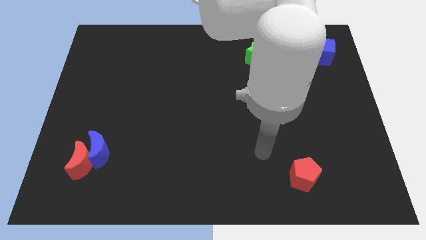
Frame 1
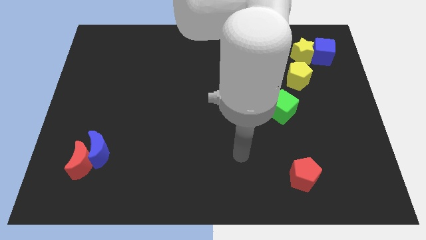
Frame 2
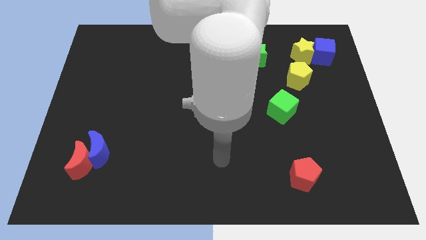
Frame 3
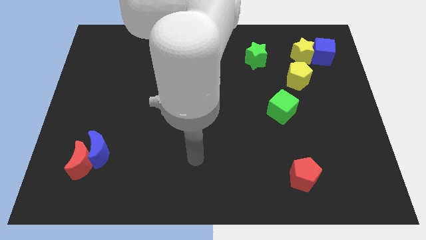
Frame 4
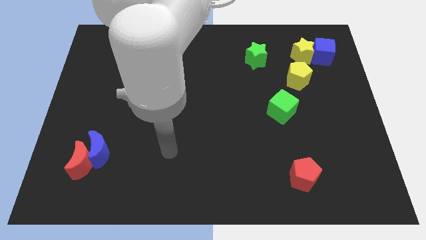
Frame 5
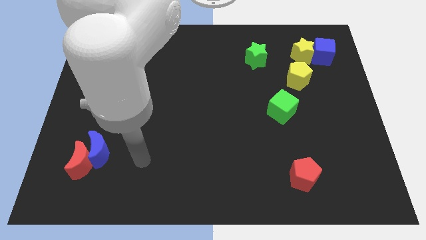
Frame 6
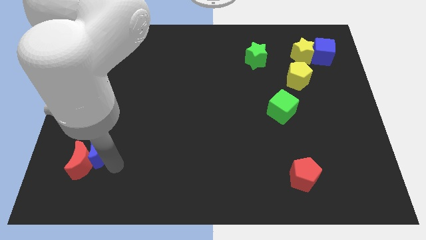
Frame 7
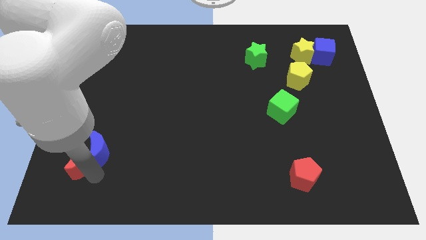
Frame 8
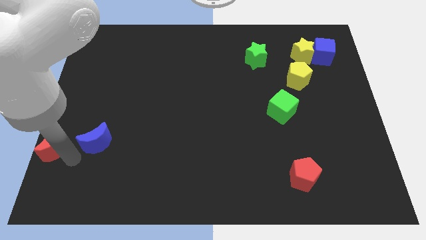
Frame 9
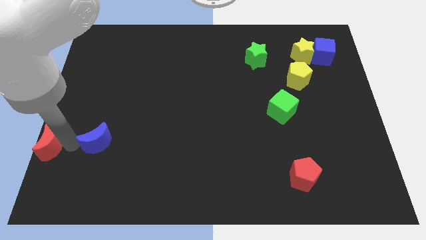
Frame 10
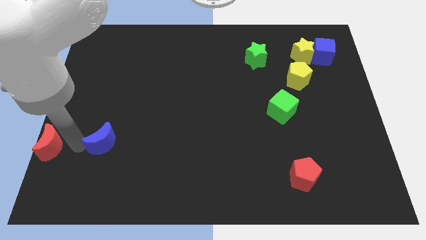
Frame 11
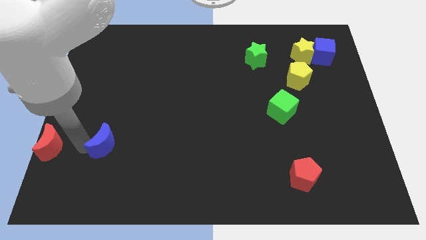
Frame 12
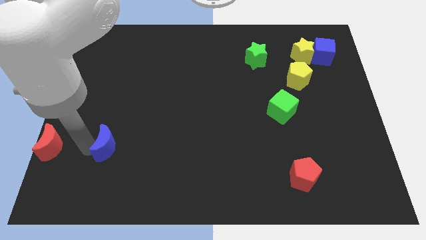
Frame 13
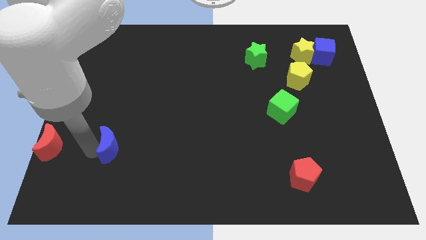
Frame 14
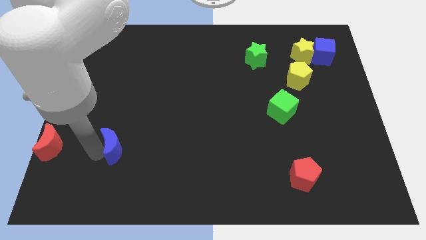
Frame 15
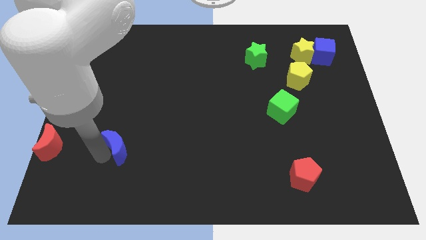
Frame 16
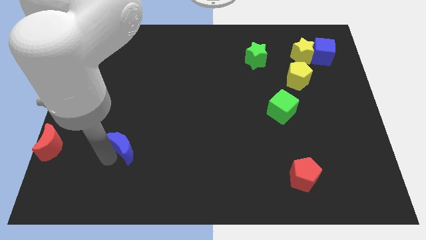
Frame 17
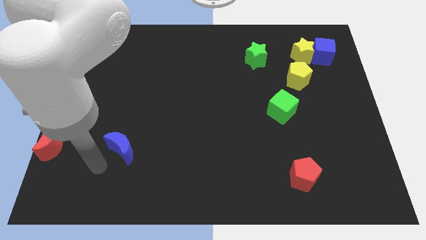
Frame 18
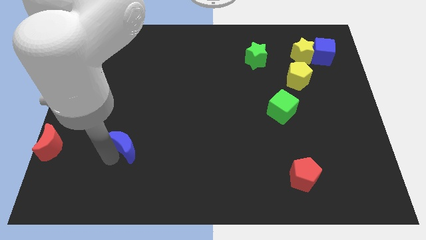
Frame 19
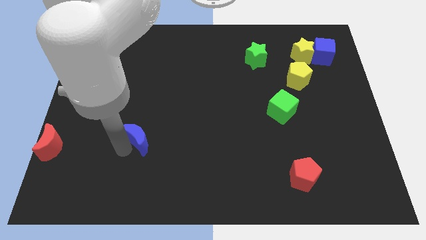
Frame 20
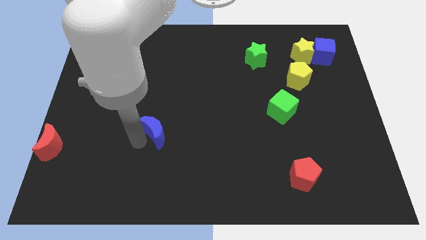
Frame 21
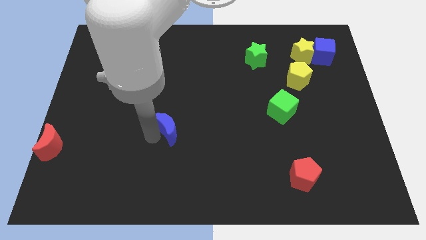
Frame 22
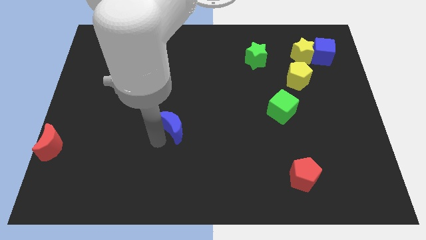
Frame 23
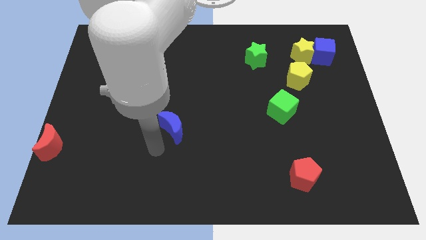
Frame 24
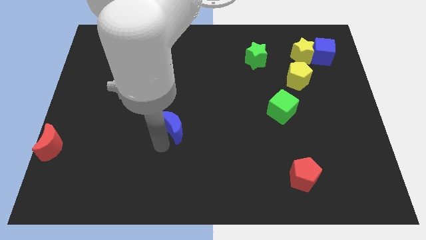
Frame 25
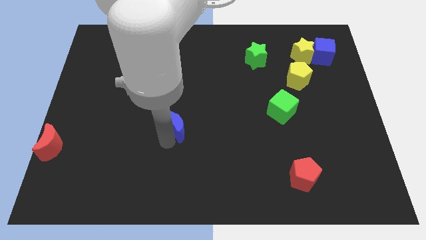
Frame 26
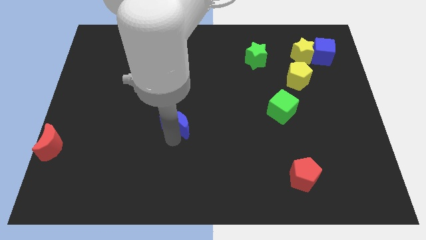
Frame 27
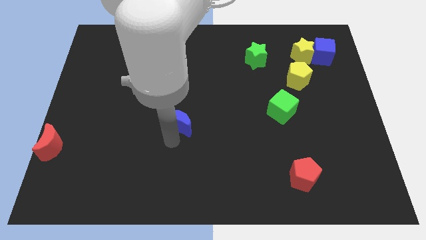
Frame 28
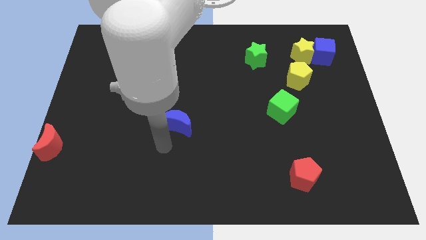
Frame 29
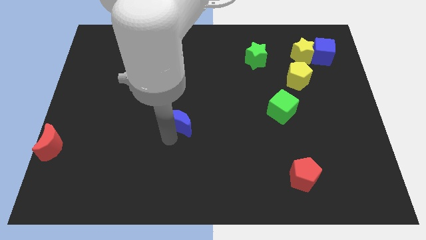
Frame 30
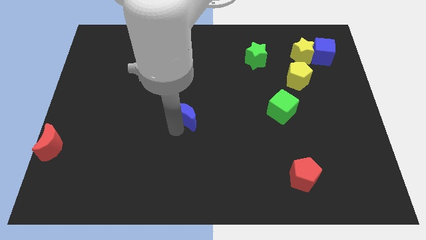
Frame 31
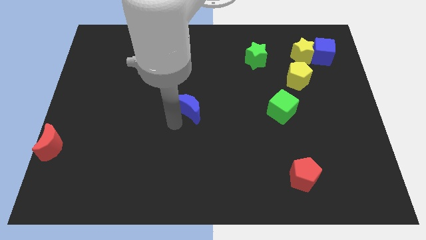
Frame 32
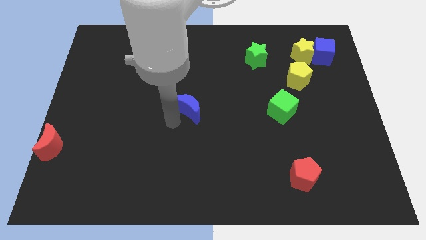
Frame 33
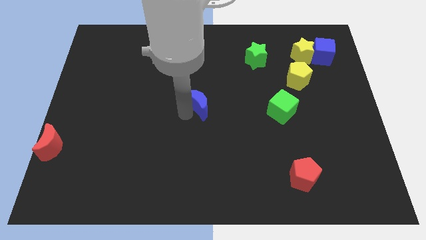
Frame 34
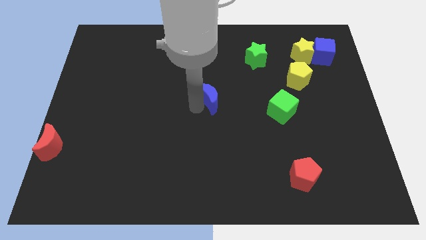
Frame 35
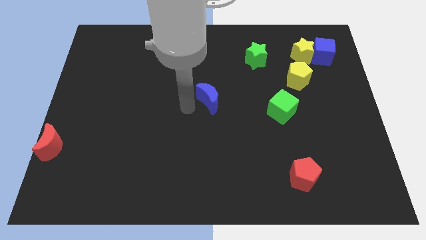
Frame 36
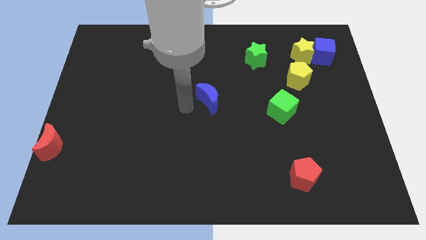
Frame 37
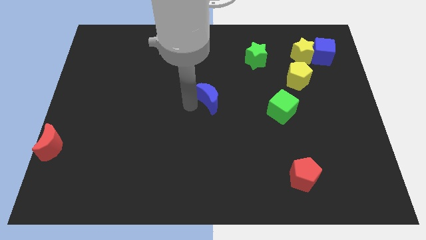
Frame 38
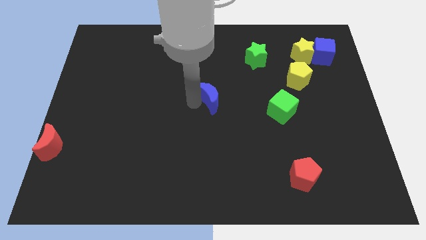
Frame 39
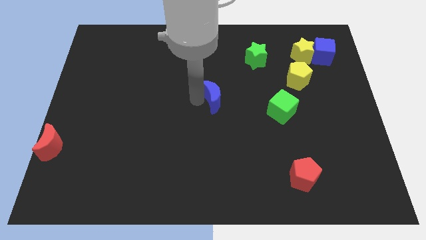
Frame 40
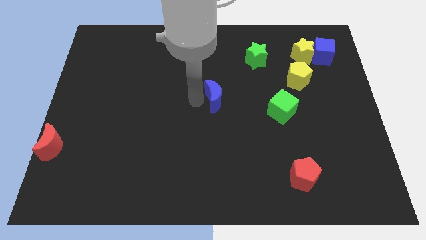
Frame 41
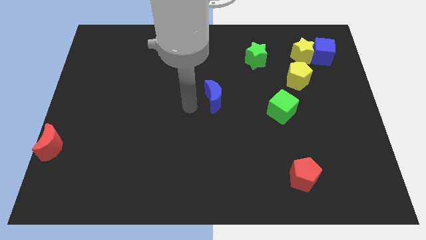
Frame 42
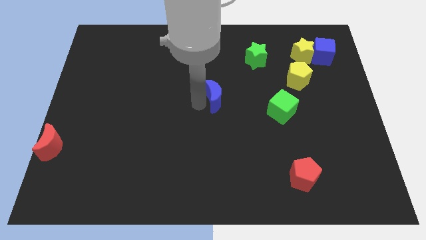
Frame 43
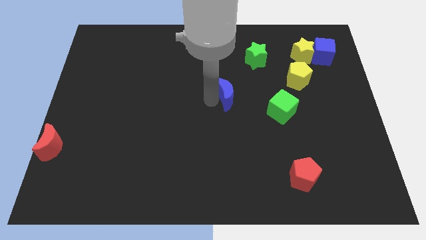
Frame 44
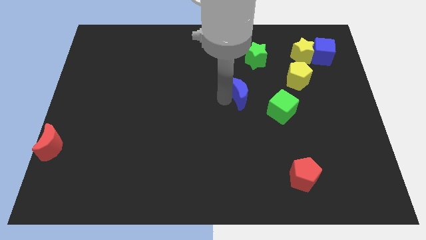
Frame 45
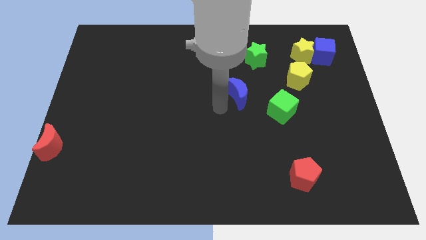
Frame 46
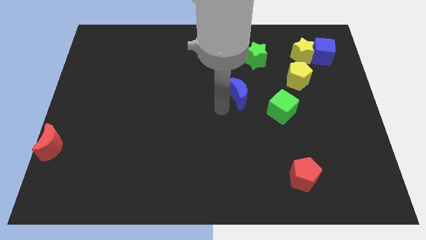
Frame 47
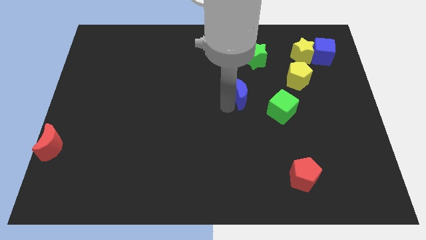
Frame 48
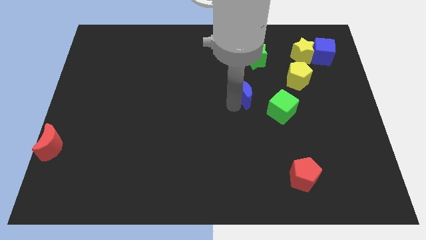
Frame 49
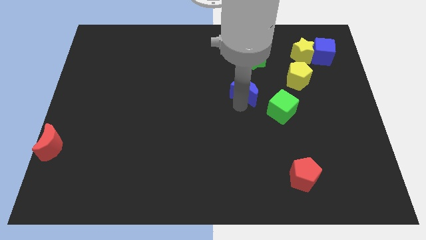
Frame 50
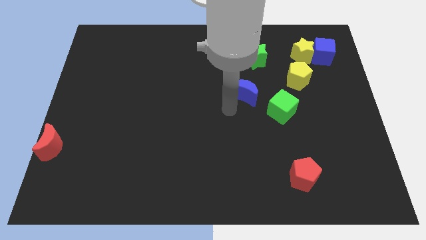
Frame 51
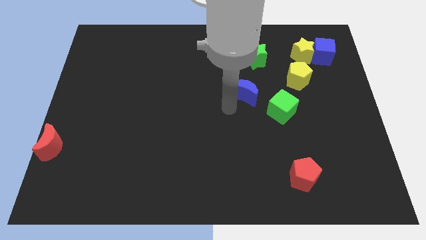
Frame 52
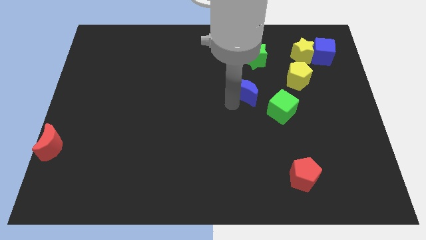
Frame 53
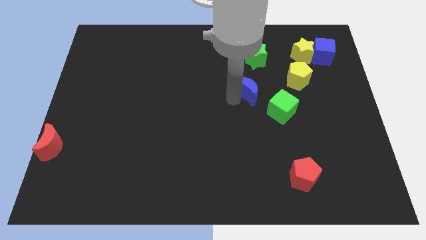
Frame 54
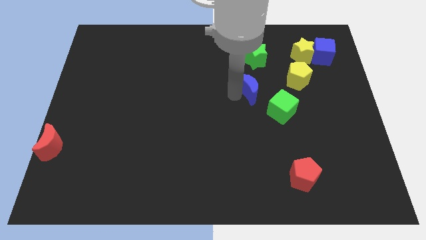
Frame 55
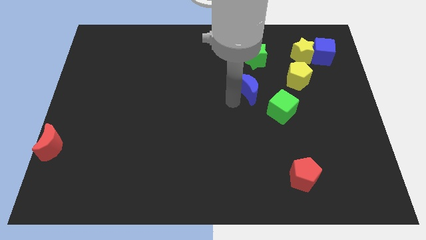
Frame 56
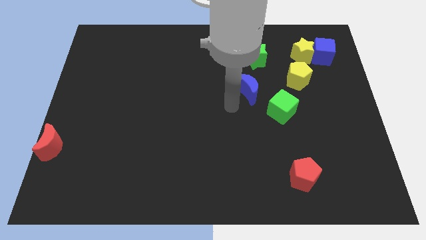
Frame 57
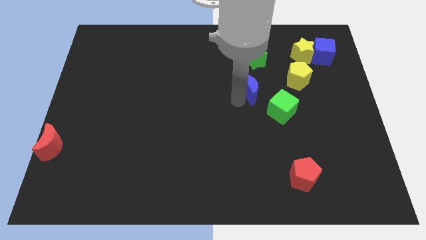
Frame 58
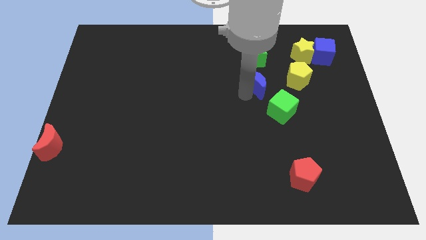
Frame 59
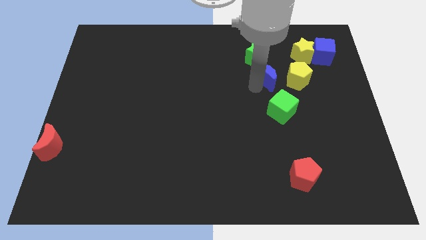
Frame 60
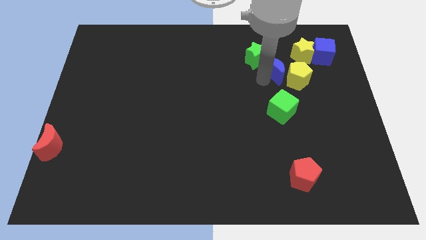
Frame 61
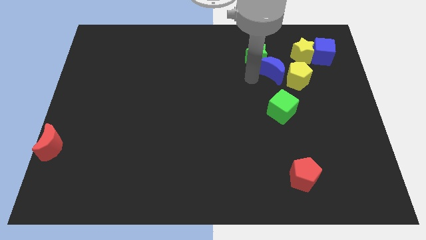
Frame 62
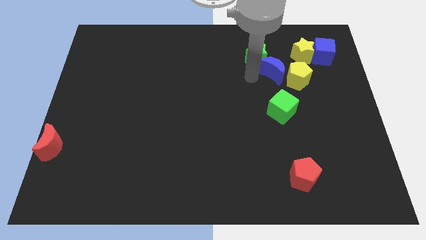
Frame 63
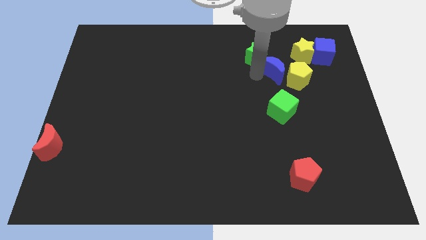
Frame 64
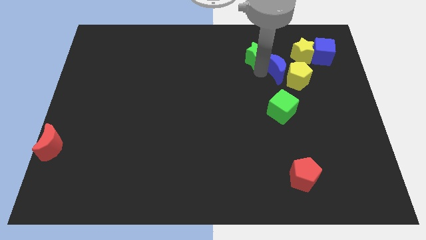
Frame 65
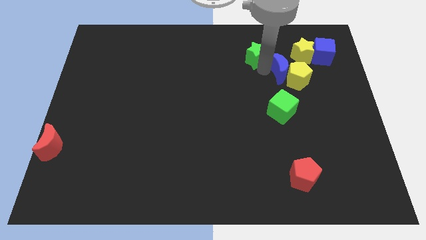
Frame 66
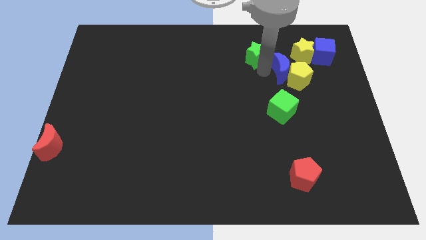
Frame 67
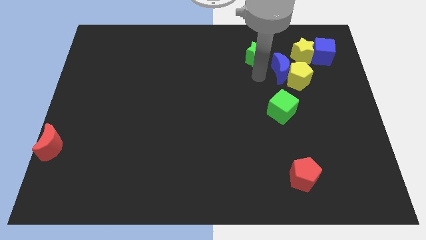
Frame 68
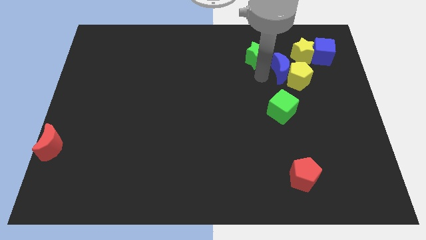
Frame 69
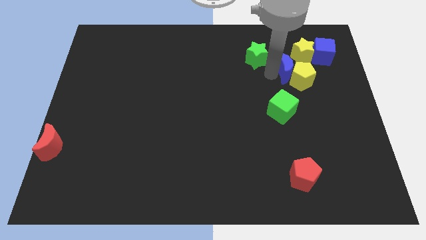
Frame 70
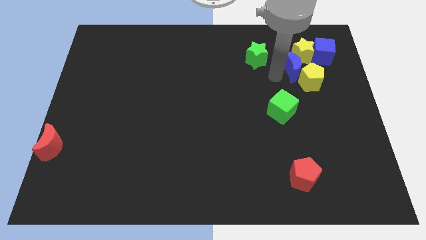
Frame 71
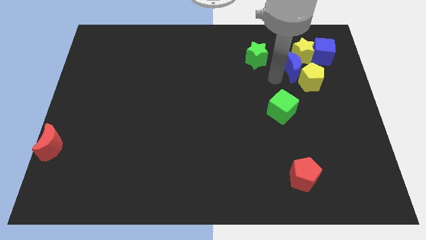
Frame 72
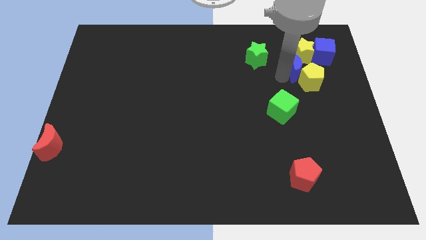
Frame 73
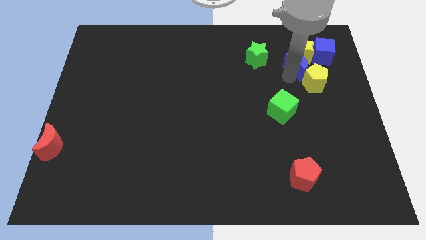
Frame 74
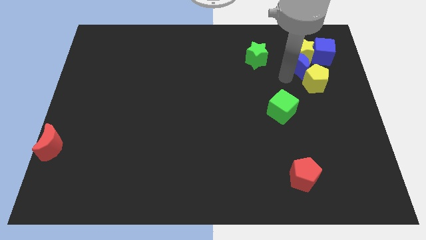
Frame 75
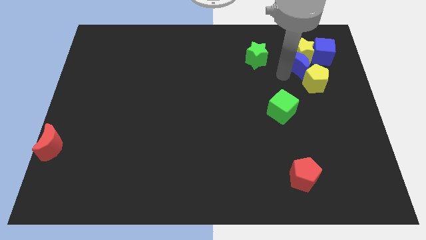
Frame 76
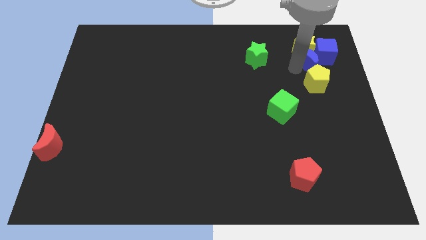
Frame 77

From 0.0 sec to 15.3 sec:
push the blue moon to the blue cube

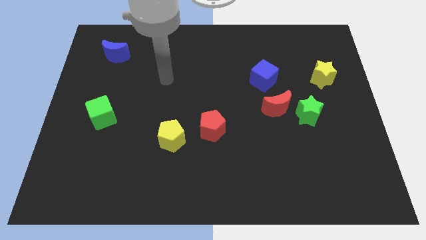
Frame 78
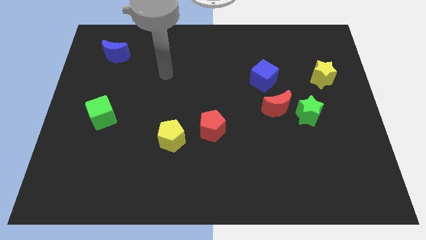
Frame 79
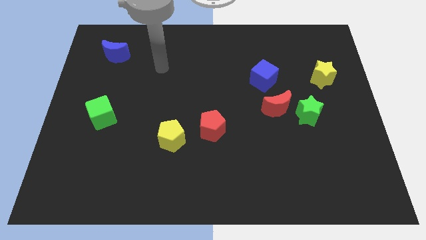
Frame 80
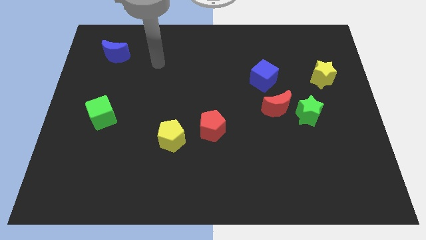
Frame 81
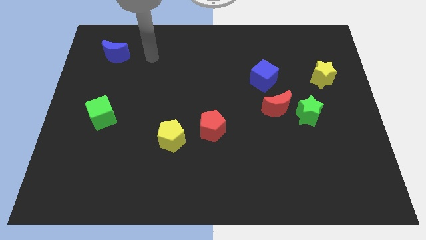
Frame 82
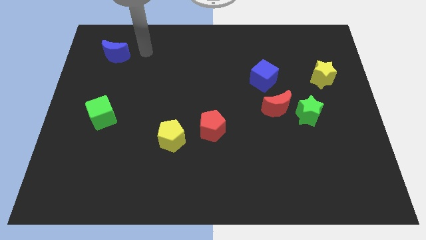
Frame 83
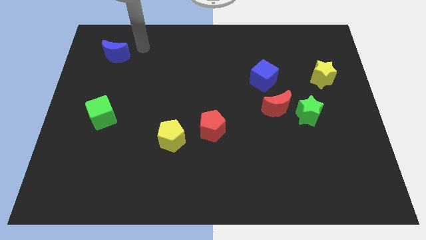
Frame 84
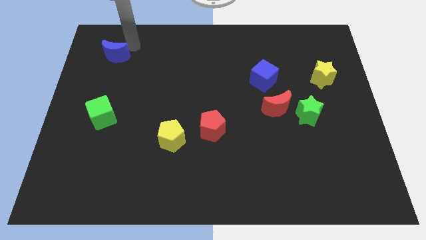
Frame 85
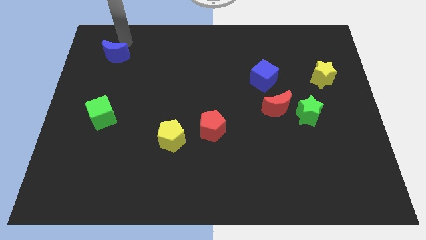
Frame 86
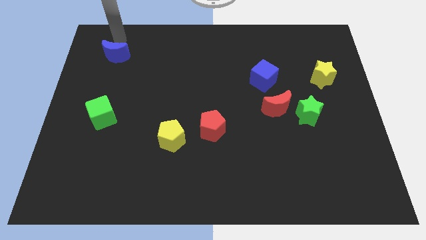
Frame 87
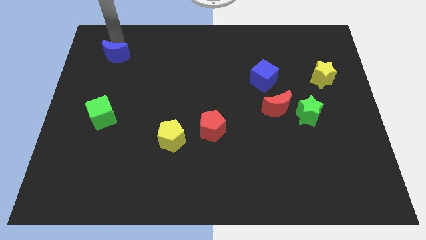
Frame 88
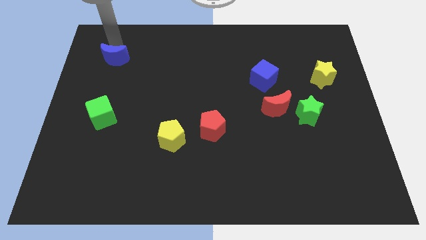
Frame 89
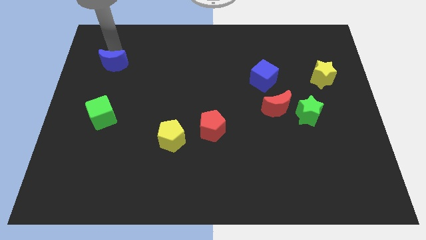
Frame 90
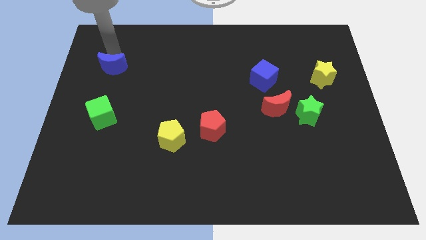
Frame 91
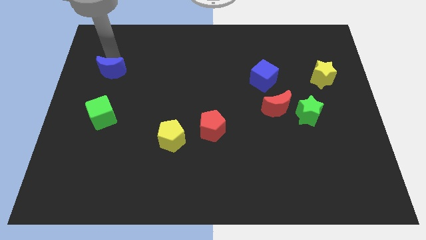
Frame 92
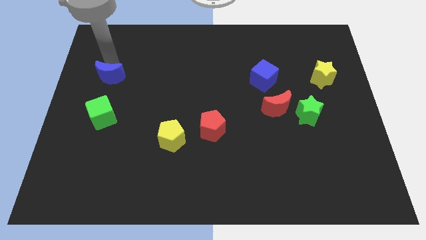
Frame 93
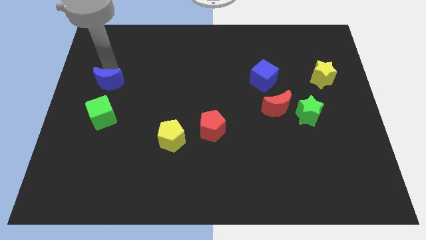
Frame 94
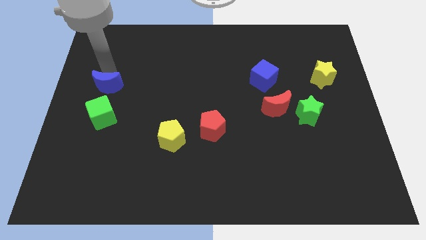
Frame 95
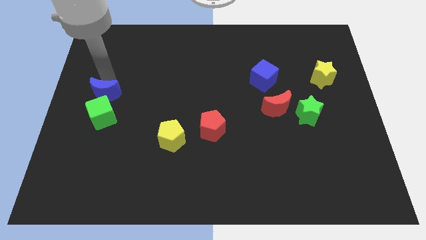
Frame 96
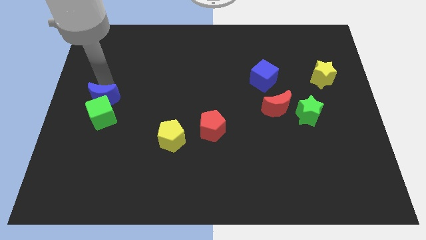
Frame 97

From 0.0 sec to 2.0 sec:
slide the blue moon next to the green cube
